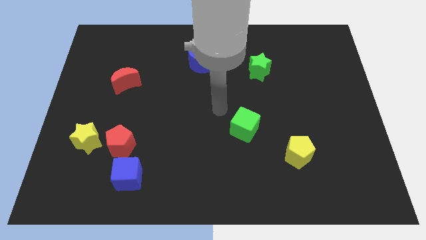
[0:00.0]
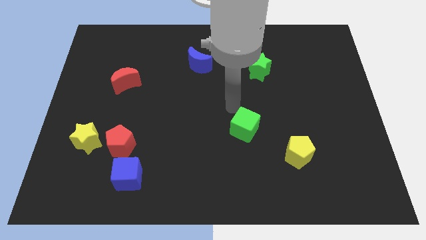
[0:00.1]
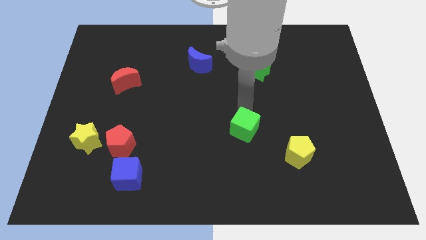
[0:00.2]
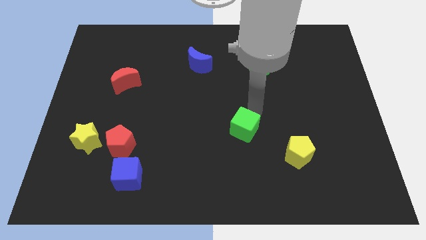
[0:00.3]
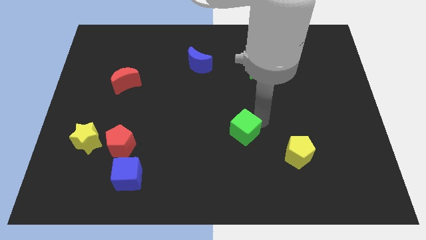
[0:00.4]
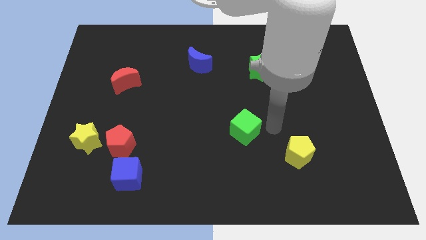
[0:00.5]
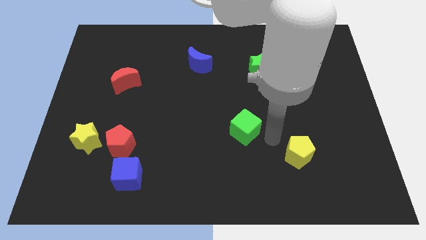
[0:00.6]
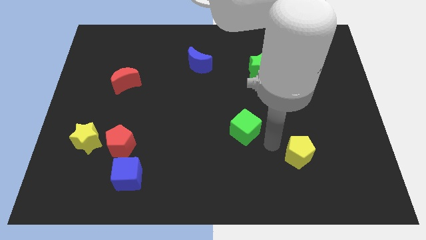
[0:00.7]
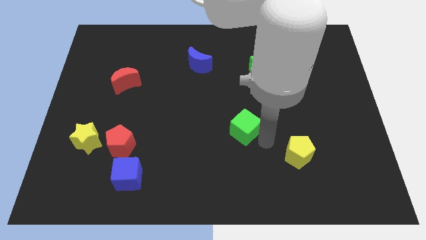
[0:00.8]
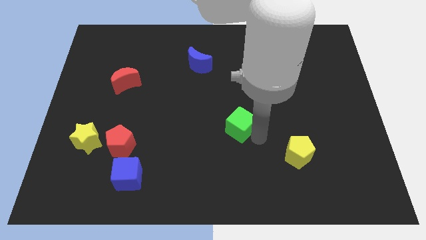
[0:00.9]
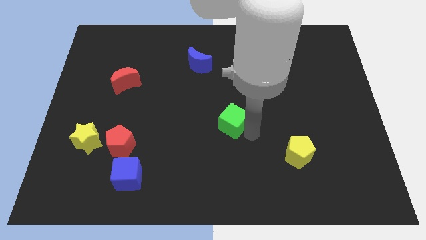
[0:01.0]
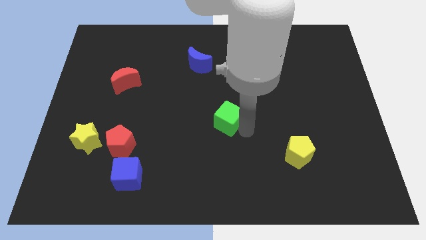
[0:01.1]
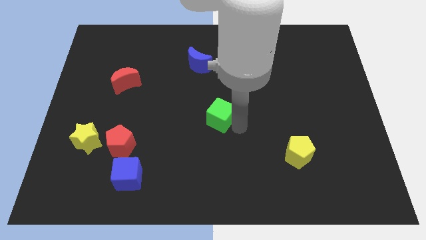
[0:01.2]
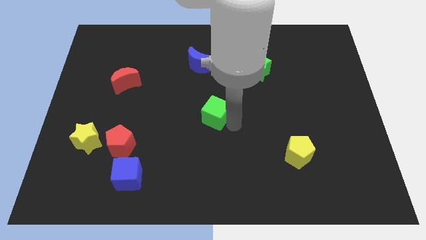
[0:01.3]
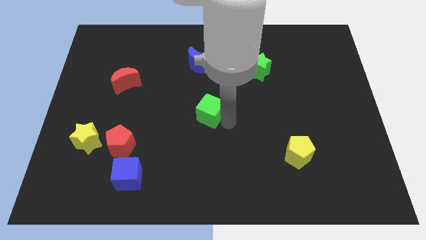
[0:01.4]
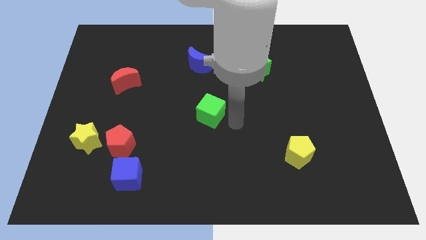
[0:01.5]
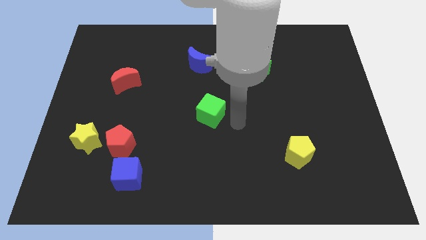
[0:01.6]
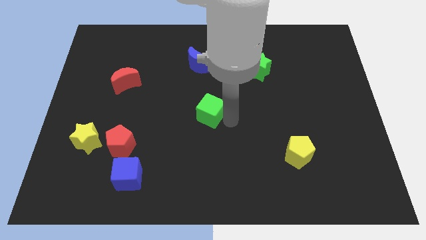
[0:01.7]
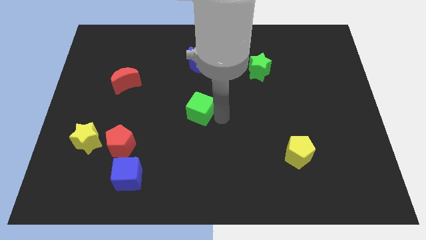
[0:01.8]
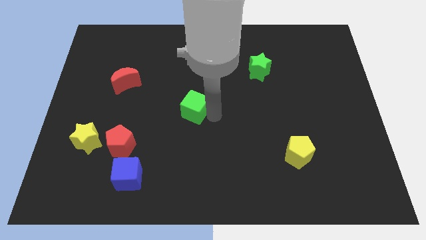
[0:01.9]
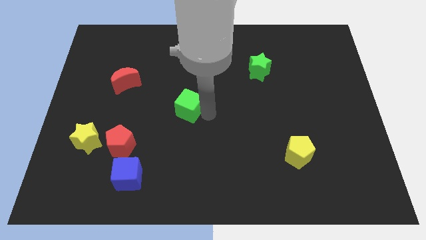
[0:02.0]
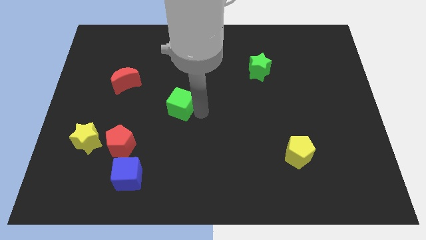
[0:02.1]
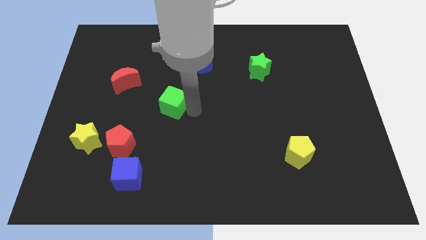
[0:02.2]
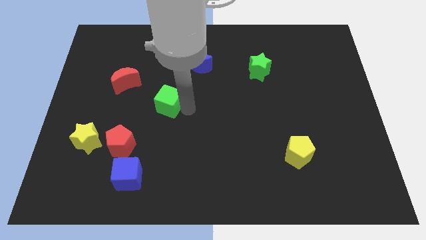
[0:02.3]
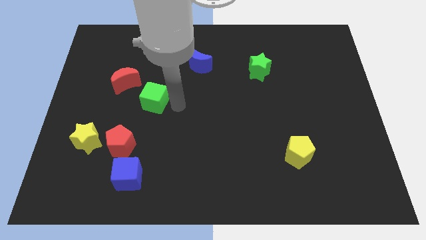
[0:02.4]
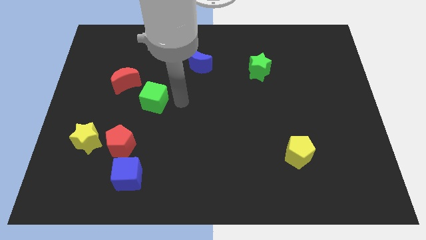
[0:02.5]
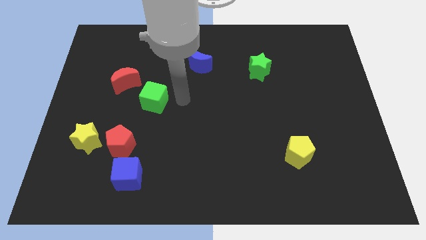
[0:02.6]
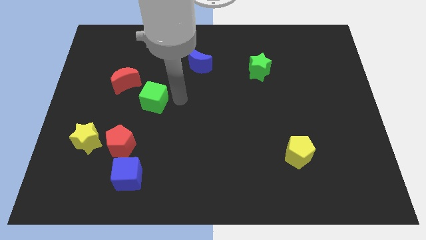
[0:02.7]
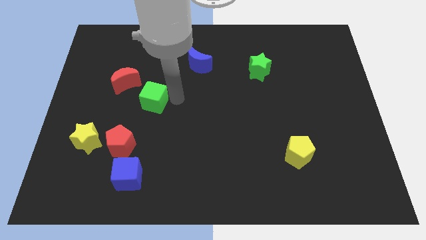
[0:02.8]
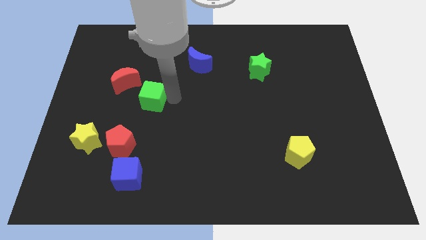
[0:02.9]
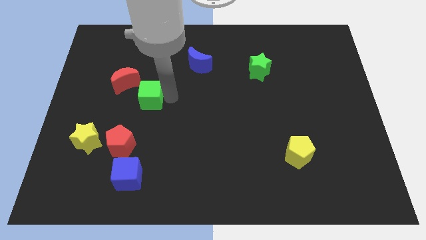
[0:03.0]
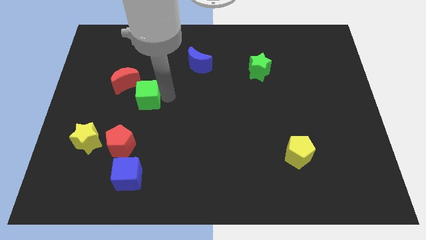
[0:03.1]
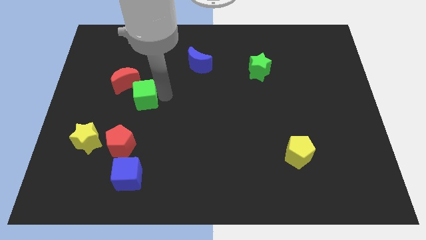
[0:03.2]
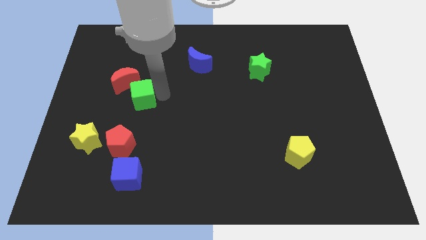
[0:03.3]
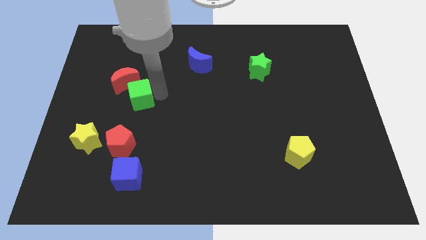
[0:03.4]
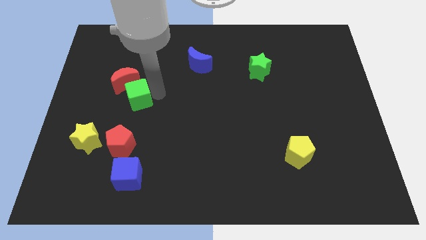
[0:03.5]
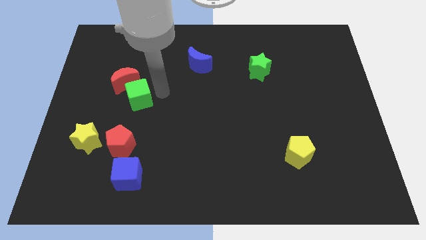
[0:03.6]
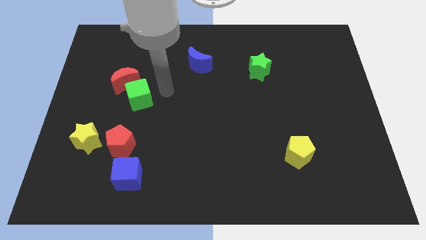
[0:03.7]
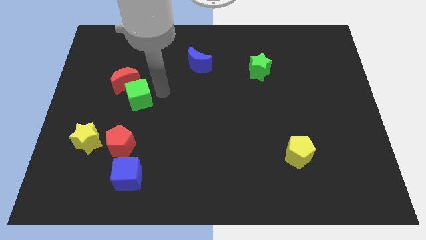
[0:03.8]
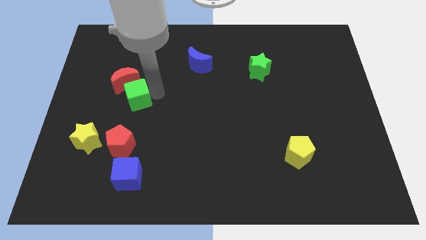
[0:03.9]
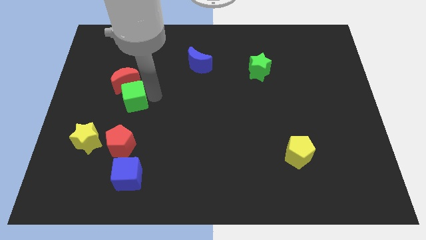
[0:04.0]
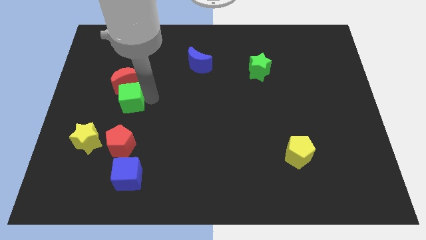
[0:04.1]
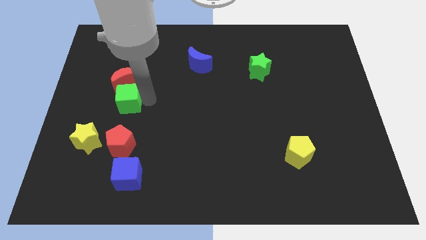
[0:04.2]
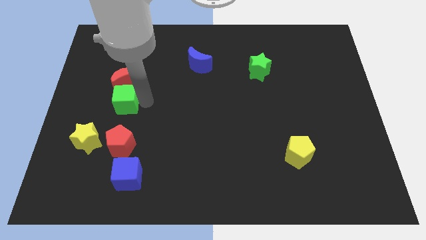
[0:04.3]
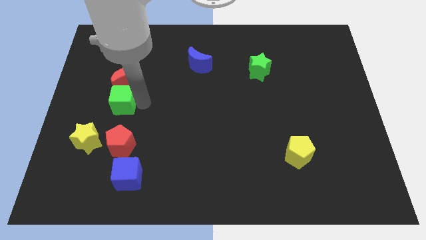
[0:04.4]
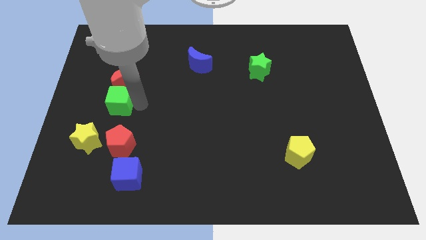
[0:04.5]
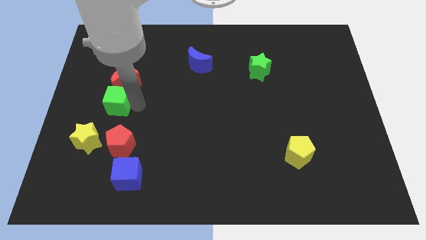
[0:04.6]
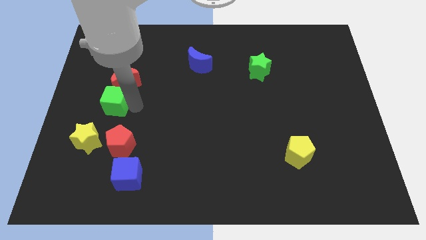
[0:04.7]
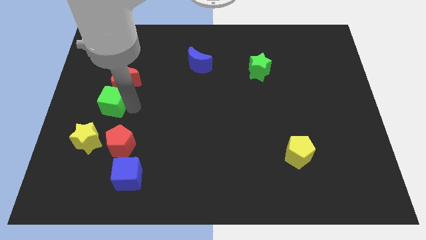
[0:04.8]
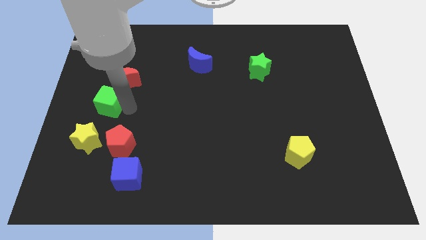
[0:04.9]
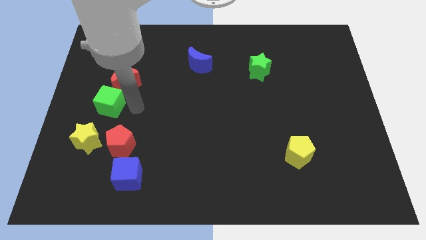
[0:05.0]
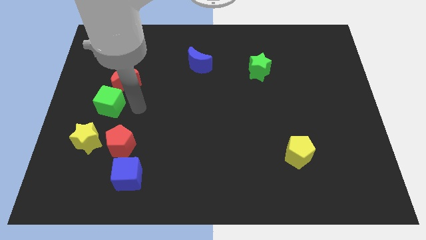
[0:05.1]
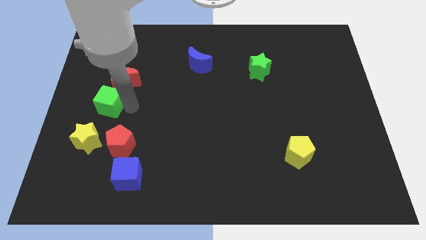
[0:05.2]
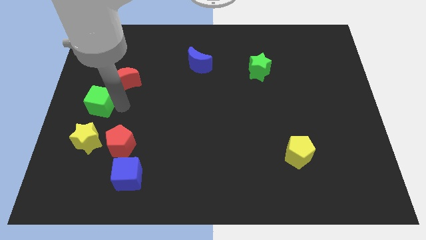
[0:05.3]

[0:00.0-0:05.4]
push the green cube to the center left

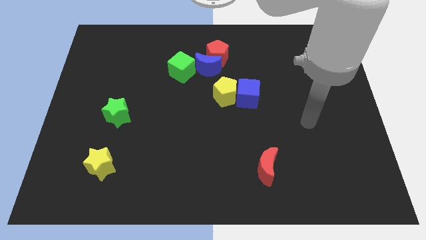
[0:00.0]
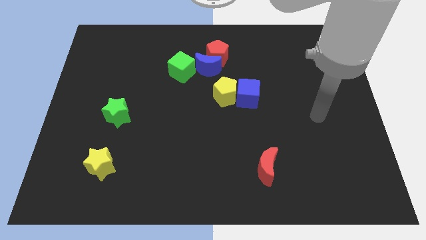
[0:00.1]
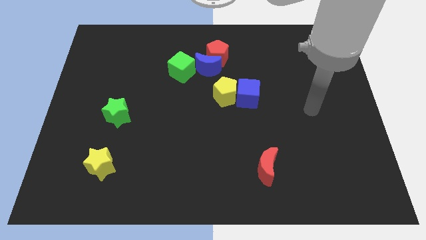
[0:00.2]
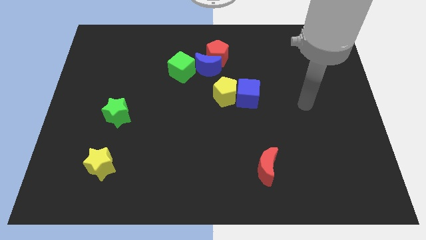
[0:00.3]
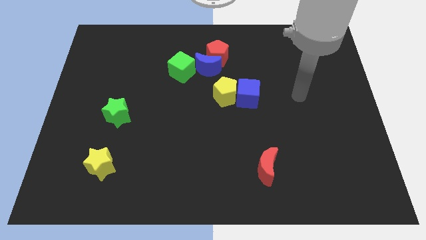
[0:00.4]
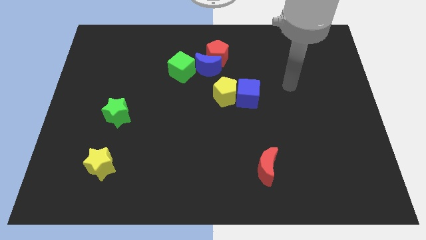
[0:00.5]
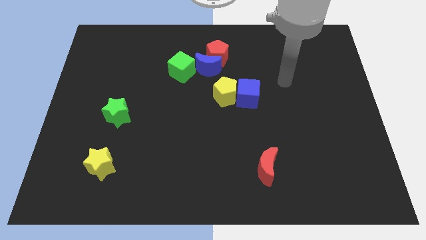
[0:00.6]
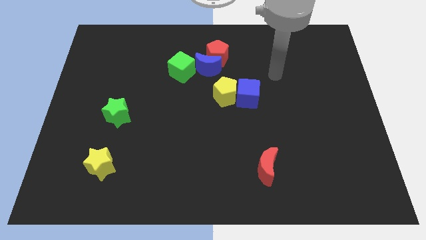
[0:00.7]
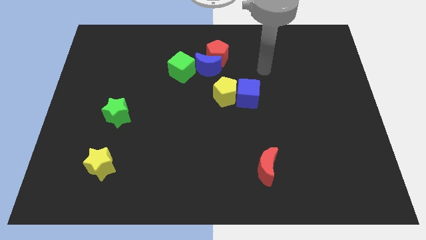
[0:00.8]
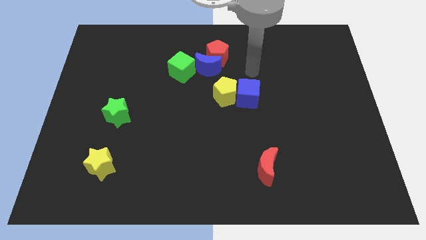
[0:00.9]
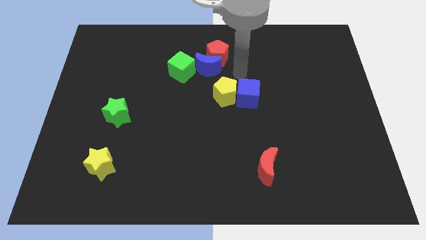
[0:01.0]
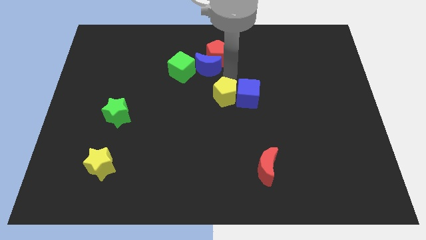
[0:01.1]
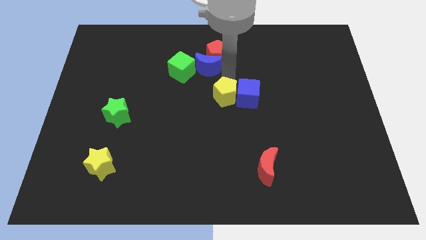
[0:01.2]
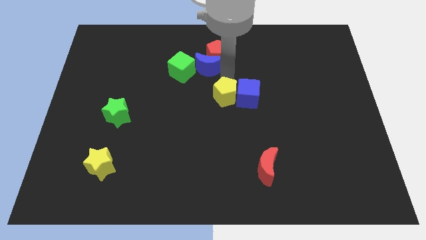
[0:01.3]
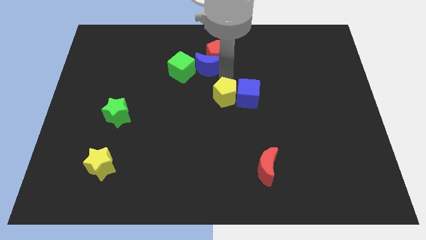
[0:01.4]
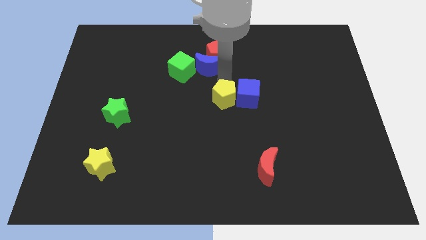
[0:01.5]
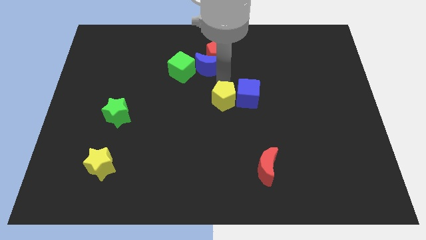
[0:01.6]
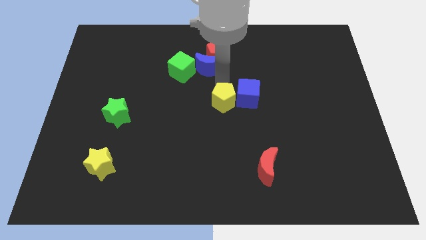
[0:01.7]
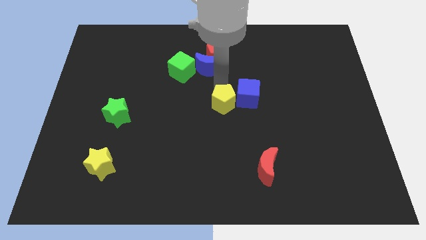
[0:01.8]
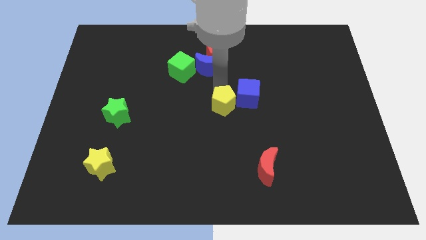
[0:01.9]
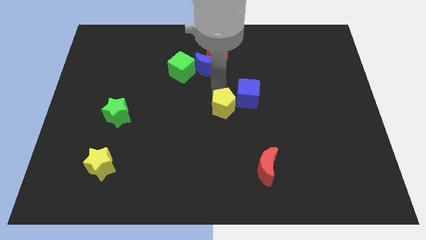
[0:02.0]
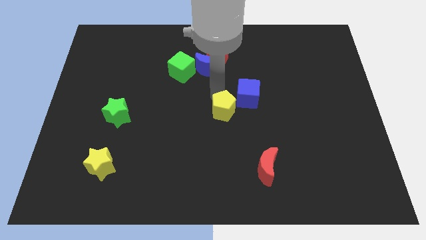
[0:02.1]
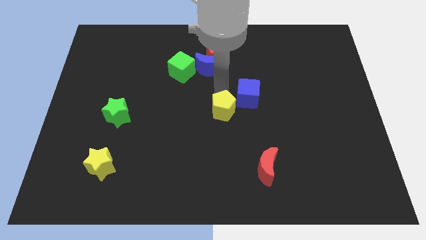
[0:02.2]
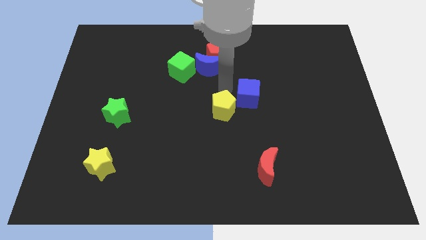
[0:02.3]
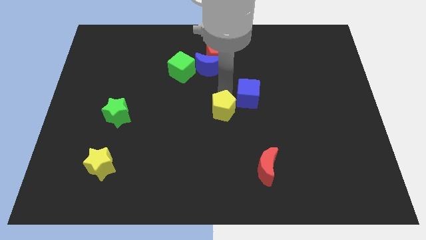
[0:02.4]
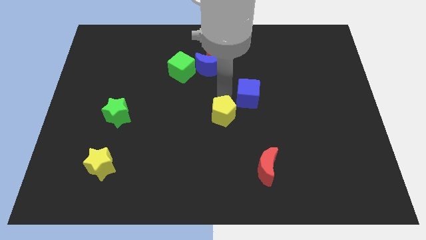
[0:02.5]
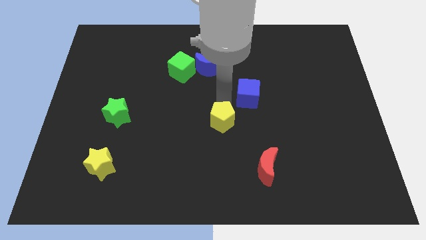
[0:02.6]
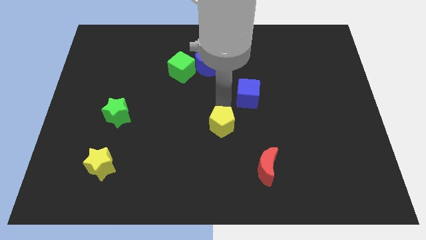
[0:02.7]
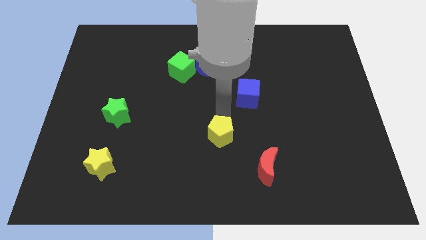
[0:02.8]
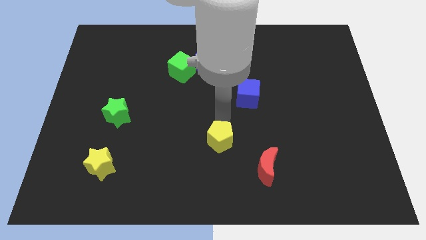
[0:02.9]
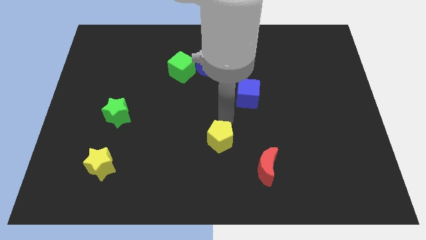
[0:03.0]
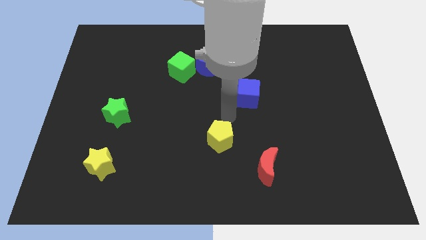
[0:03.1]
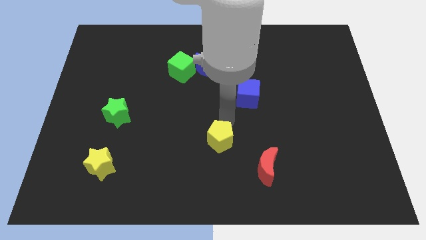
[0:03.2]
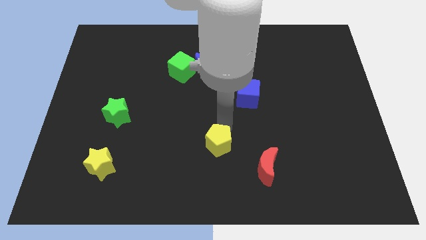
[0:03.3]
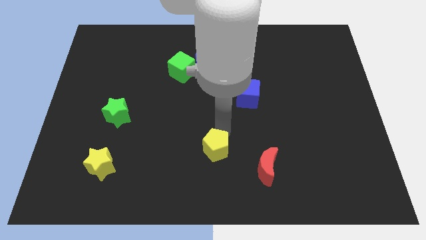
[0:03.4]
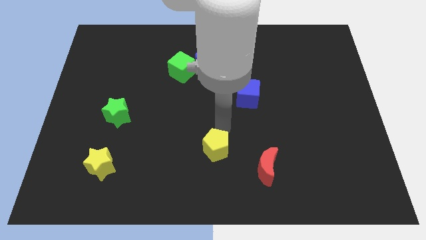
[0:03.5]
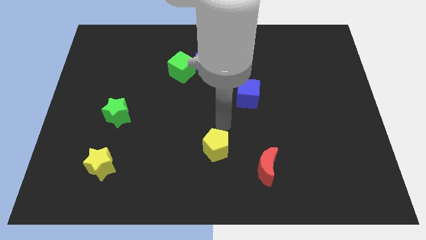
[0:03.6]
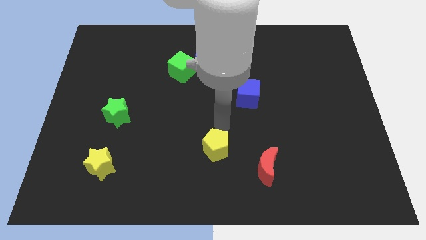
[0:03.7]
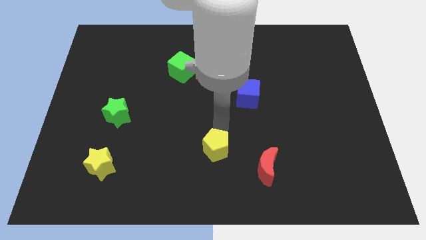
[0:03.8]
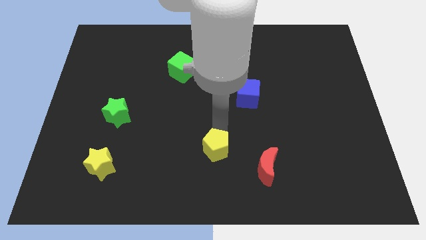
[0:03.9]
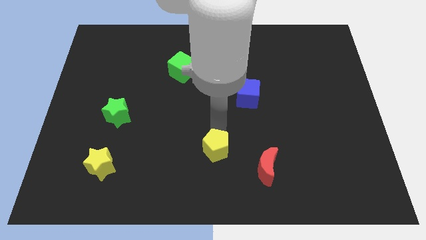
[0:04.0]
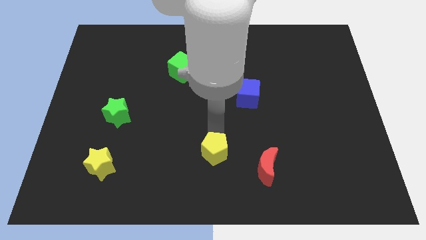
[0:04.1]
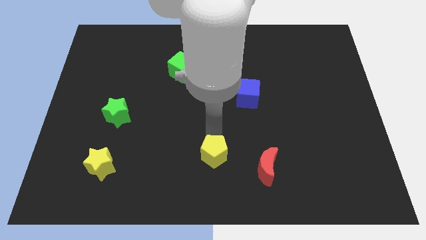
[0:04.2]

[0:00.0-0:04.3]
push the yellow pentagon to the bottom
